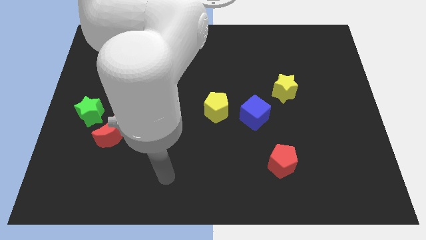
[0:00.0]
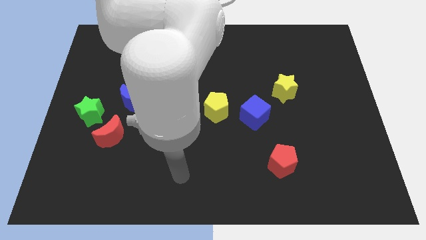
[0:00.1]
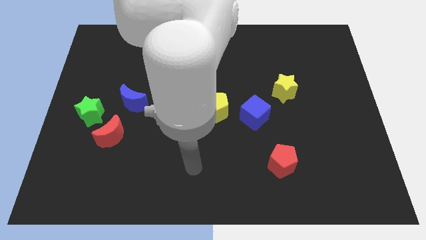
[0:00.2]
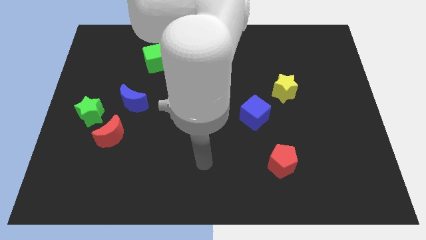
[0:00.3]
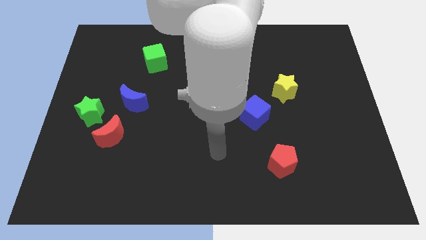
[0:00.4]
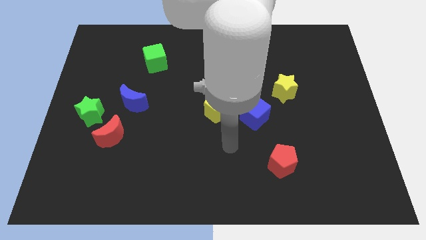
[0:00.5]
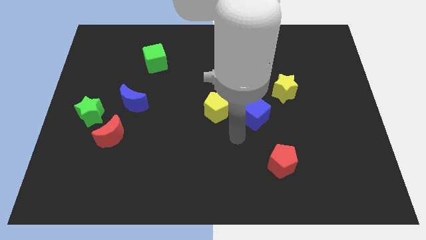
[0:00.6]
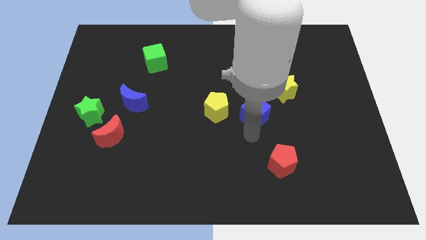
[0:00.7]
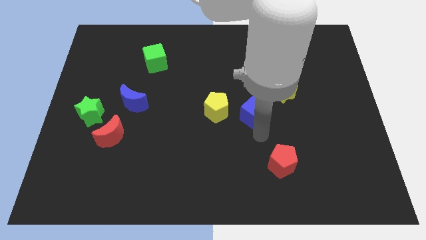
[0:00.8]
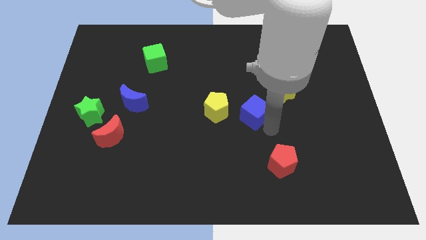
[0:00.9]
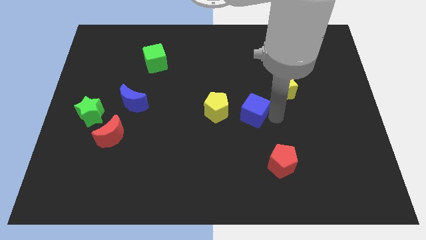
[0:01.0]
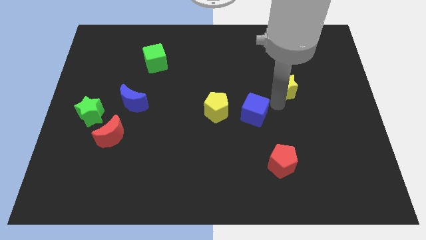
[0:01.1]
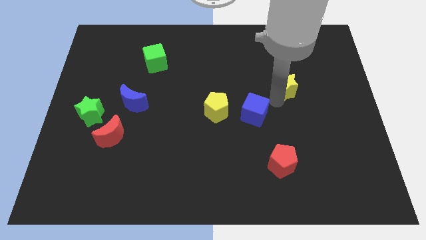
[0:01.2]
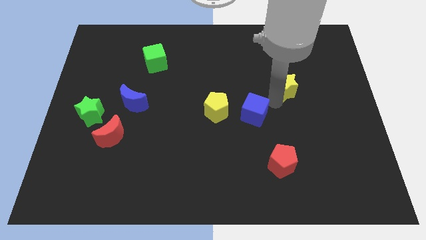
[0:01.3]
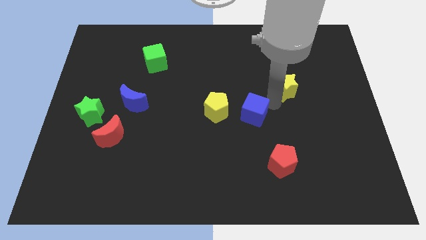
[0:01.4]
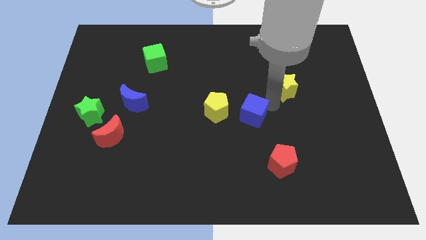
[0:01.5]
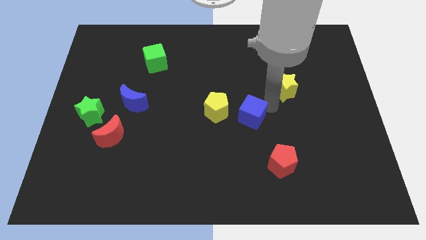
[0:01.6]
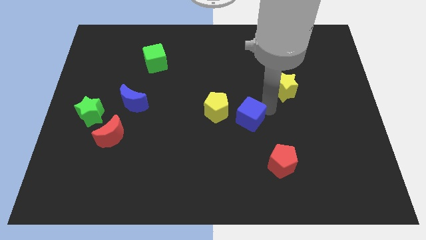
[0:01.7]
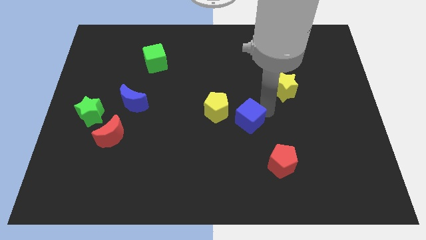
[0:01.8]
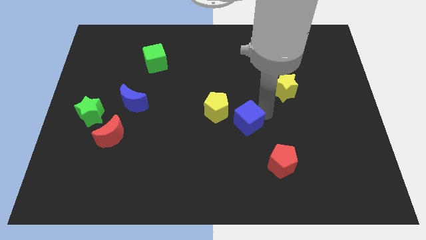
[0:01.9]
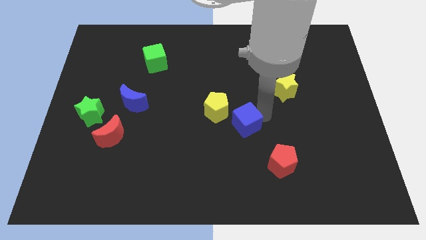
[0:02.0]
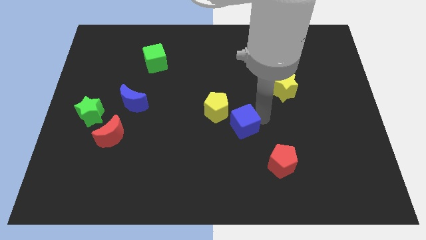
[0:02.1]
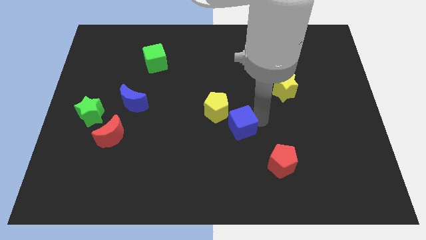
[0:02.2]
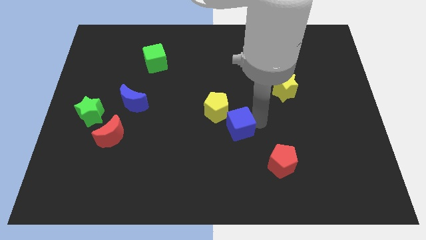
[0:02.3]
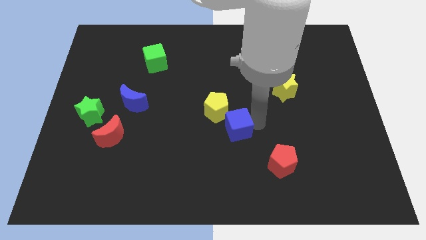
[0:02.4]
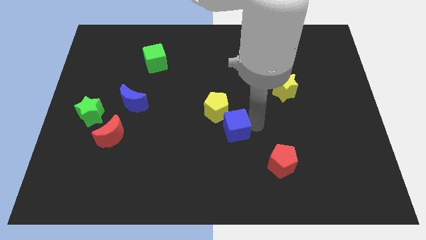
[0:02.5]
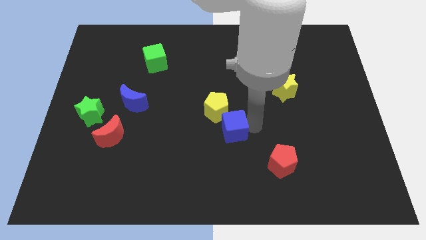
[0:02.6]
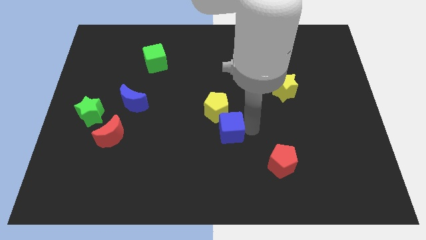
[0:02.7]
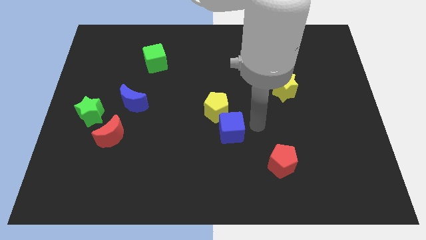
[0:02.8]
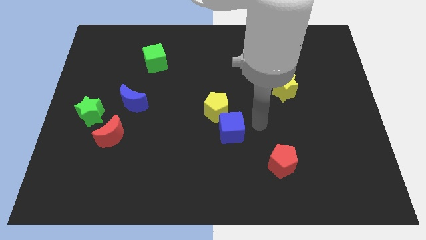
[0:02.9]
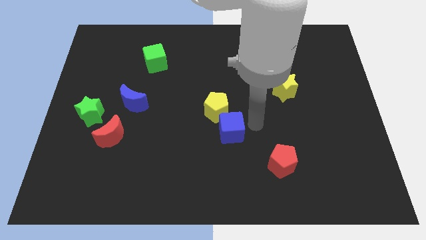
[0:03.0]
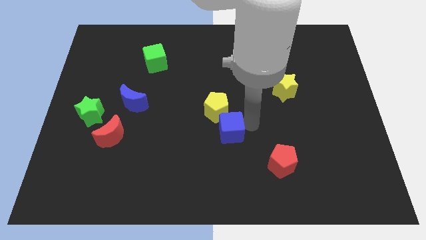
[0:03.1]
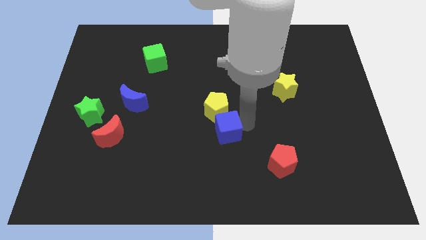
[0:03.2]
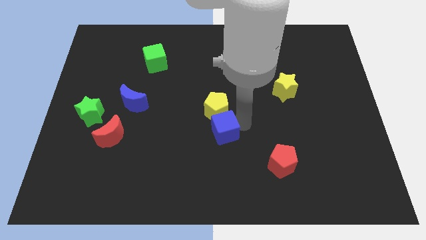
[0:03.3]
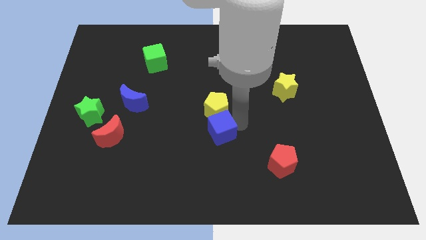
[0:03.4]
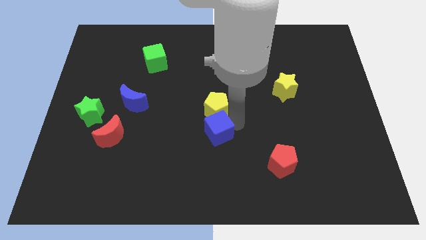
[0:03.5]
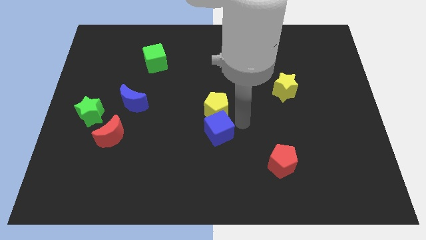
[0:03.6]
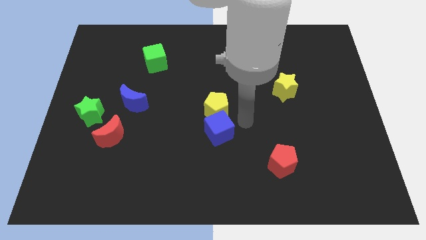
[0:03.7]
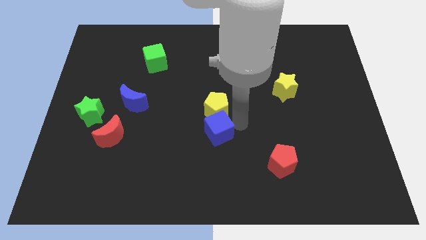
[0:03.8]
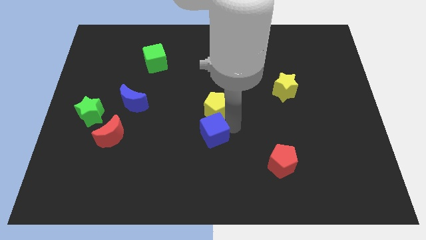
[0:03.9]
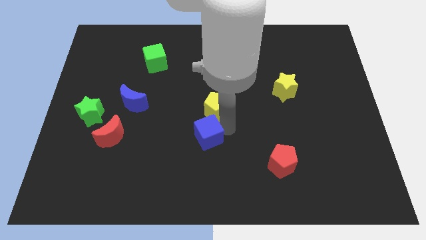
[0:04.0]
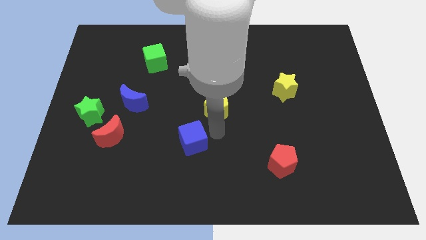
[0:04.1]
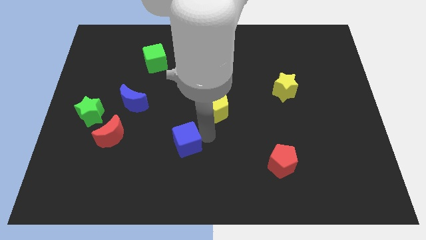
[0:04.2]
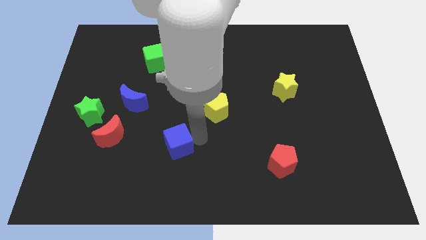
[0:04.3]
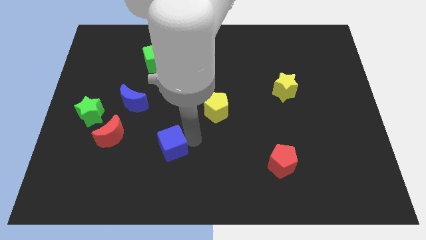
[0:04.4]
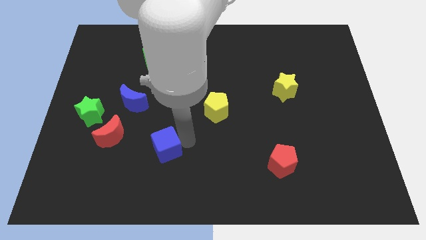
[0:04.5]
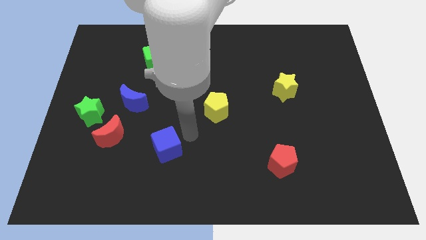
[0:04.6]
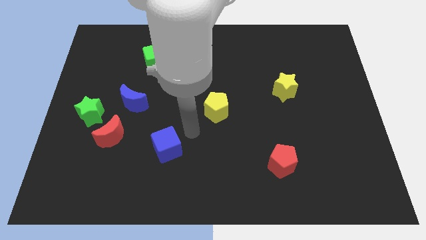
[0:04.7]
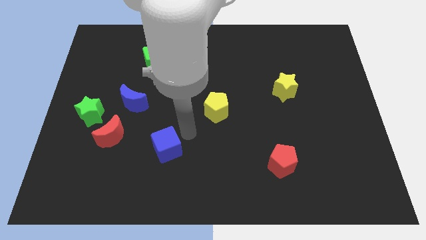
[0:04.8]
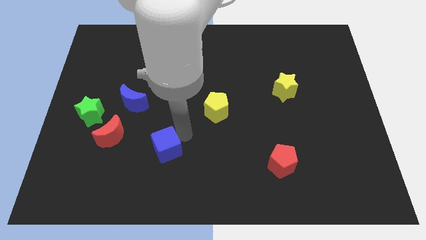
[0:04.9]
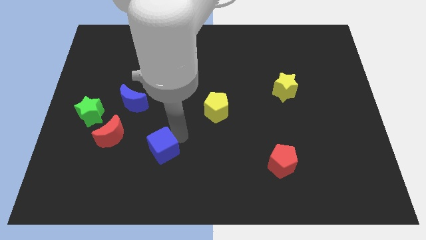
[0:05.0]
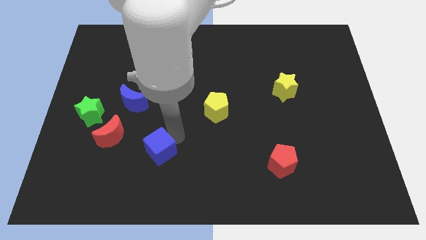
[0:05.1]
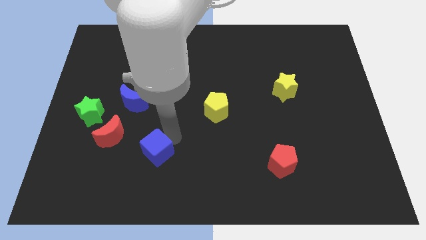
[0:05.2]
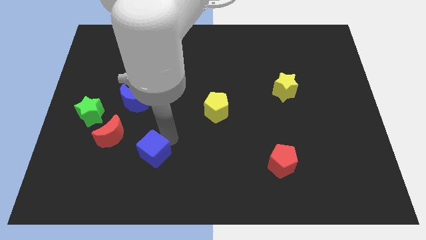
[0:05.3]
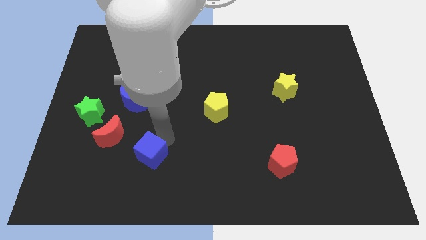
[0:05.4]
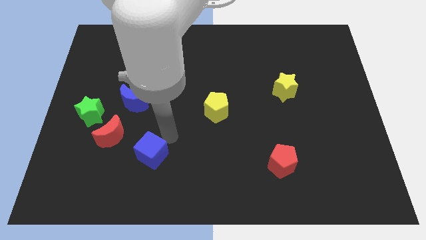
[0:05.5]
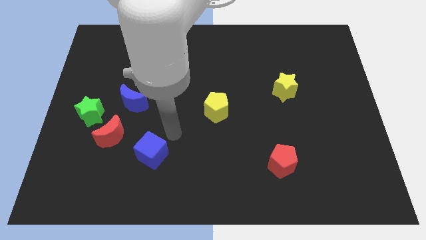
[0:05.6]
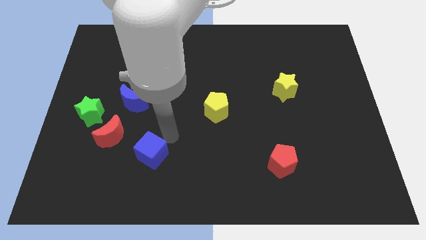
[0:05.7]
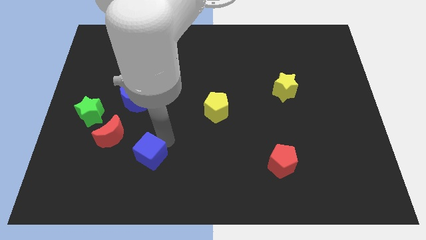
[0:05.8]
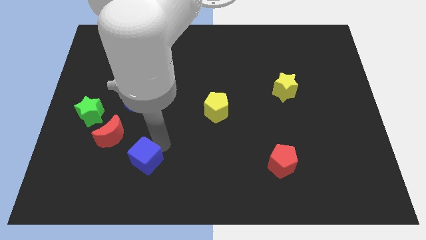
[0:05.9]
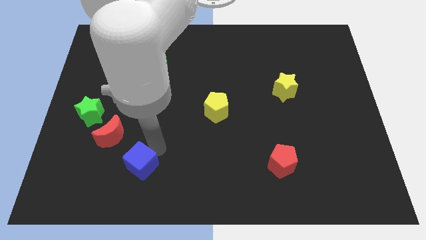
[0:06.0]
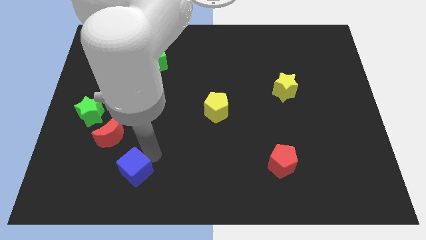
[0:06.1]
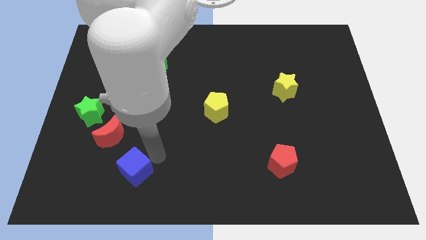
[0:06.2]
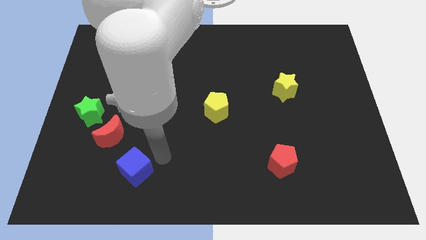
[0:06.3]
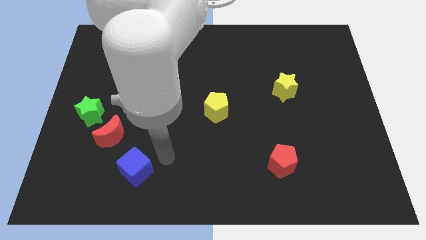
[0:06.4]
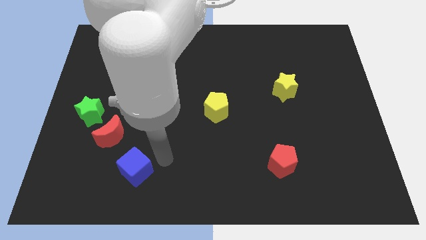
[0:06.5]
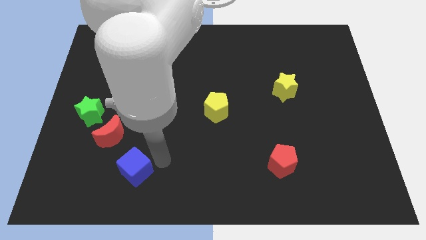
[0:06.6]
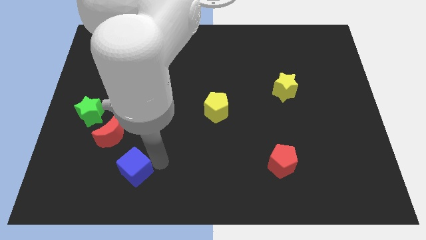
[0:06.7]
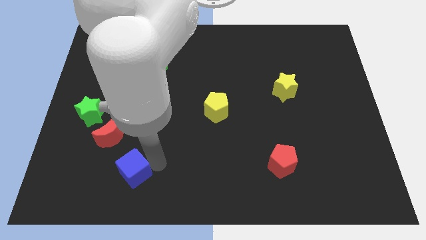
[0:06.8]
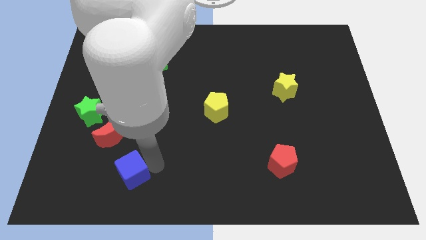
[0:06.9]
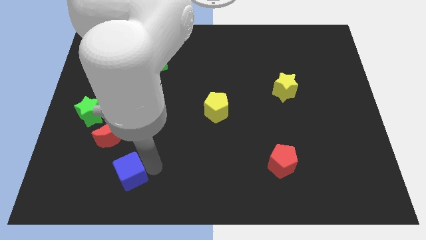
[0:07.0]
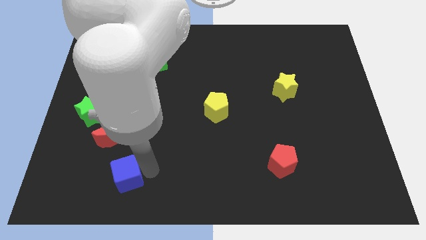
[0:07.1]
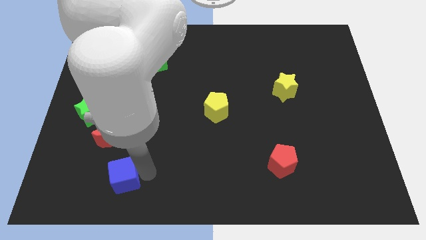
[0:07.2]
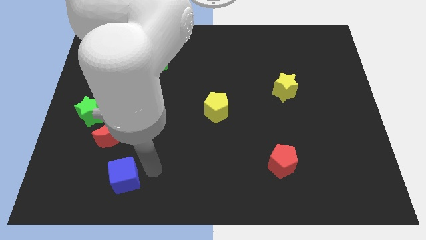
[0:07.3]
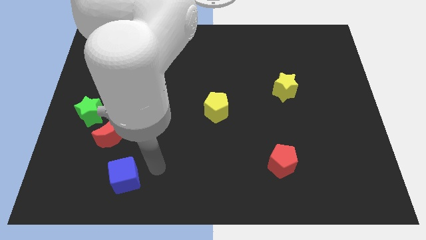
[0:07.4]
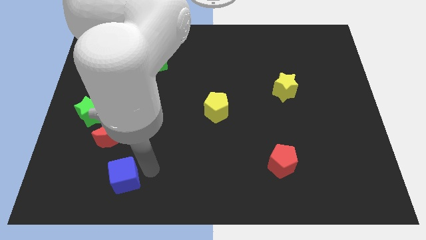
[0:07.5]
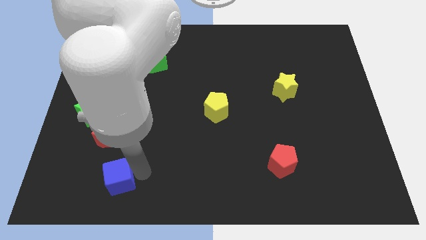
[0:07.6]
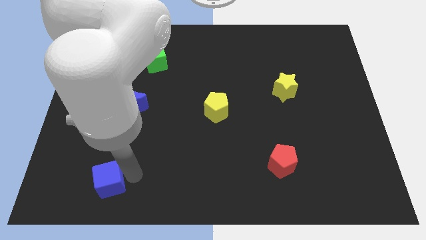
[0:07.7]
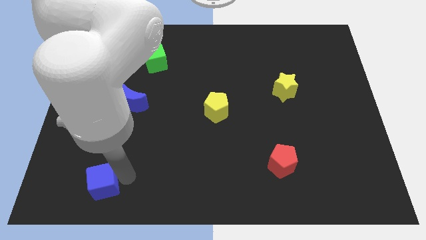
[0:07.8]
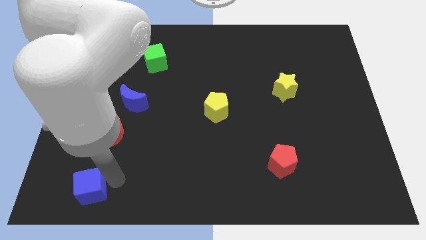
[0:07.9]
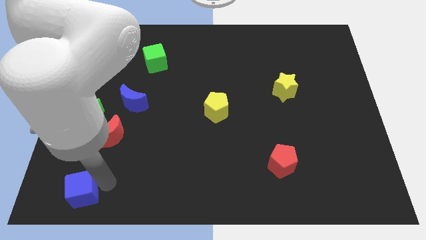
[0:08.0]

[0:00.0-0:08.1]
put the blue cube to the bottom left corner

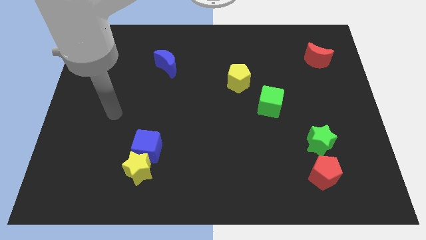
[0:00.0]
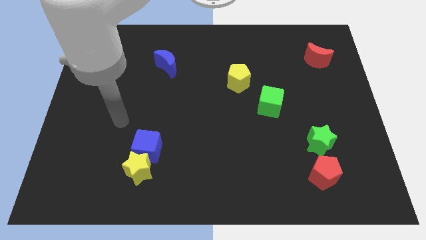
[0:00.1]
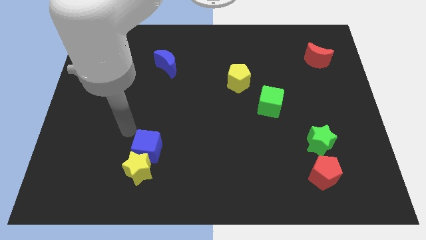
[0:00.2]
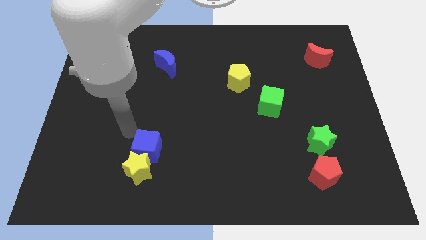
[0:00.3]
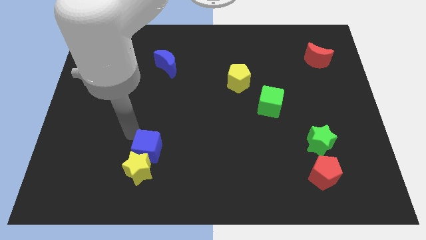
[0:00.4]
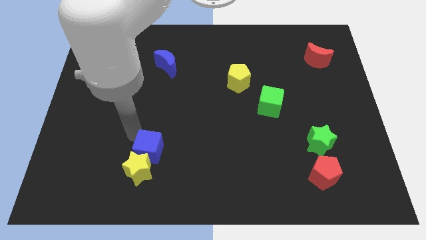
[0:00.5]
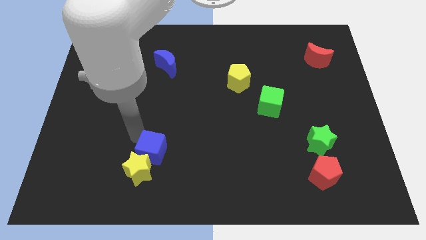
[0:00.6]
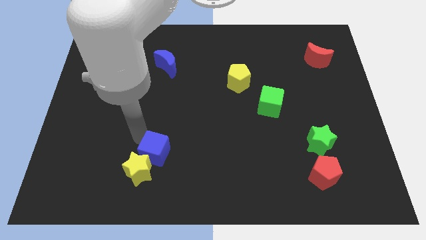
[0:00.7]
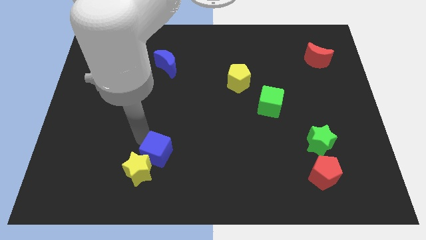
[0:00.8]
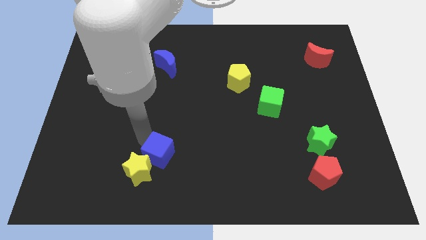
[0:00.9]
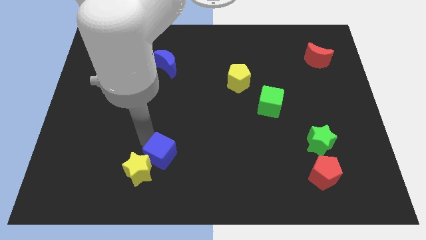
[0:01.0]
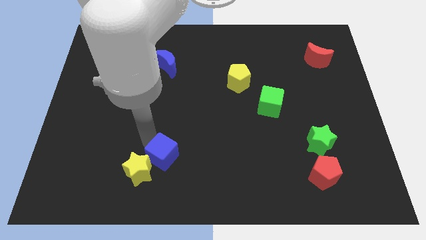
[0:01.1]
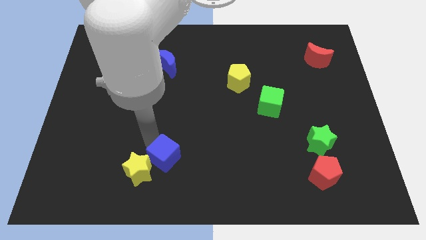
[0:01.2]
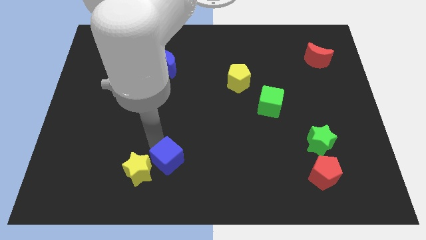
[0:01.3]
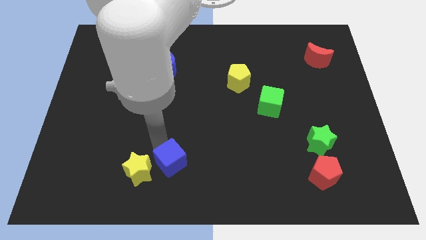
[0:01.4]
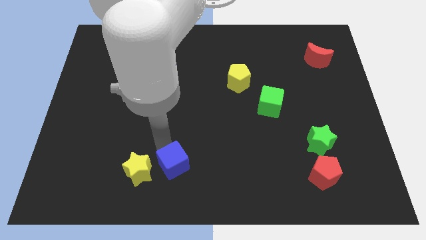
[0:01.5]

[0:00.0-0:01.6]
slide the blue cube to the bottom side
